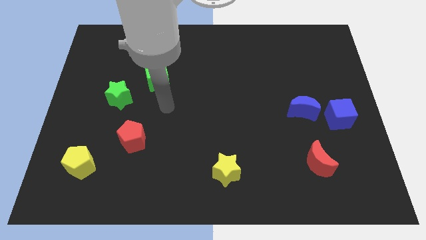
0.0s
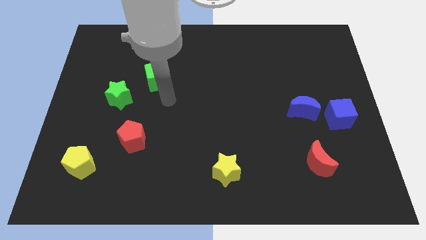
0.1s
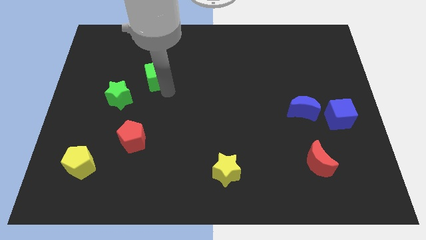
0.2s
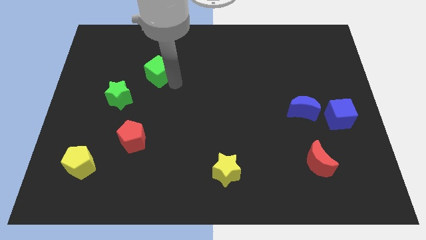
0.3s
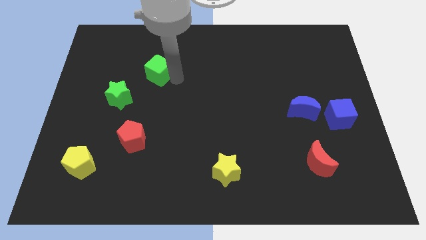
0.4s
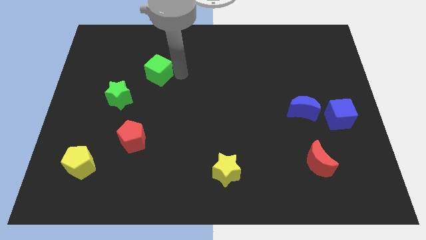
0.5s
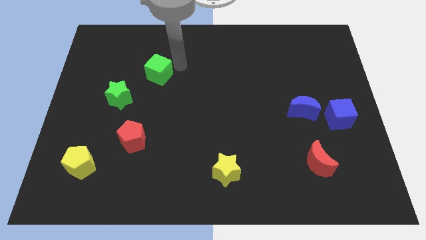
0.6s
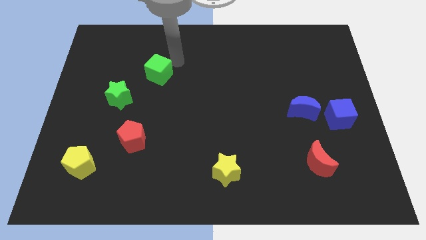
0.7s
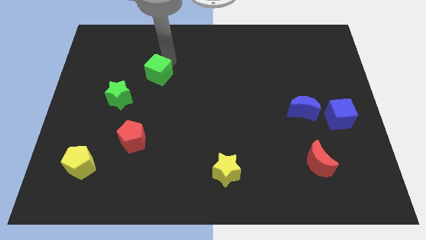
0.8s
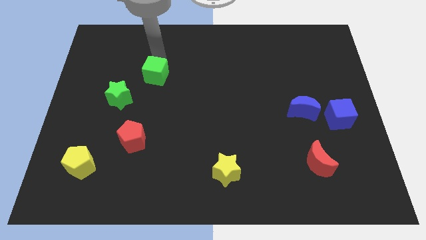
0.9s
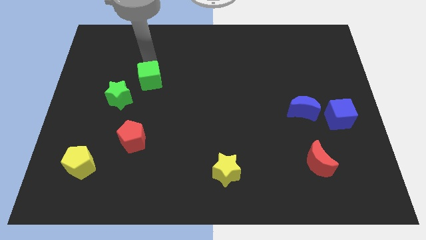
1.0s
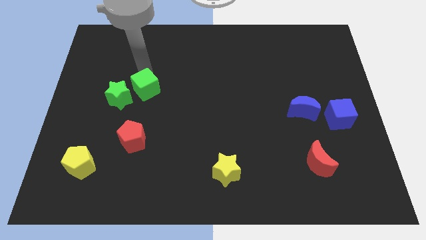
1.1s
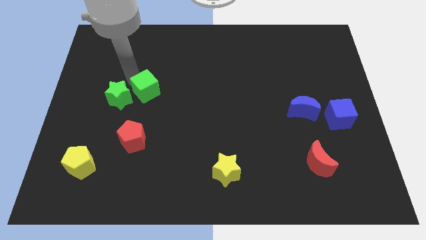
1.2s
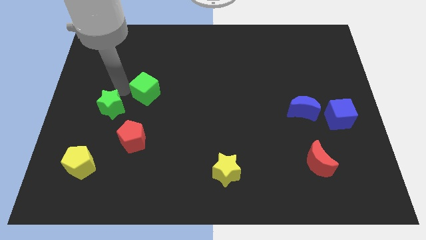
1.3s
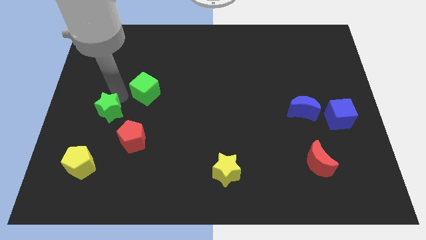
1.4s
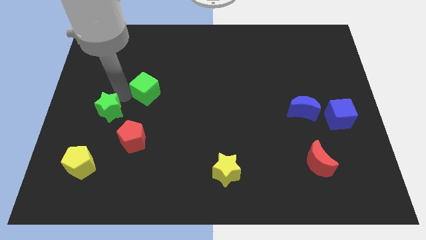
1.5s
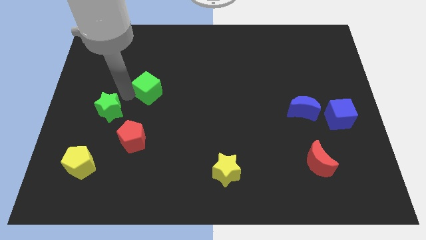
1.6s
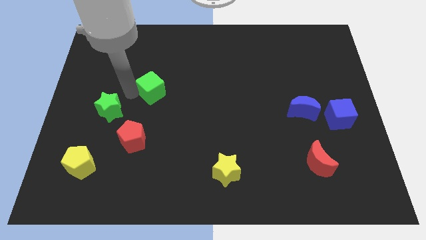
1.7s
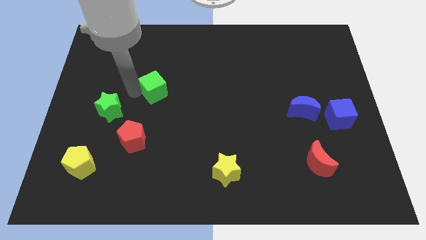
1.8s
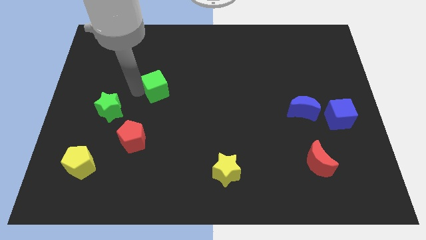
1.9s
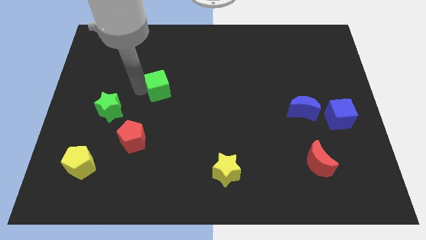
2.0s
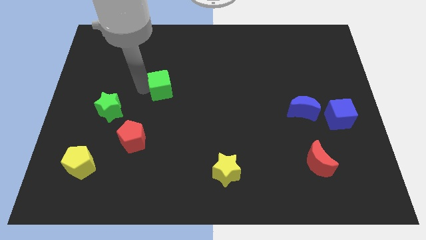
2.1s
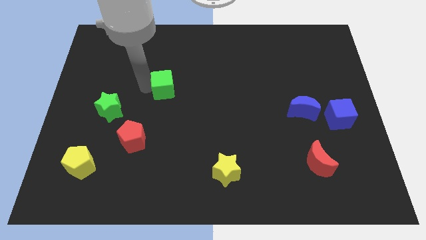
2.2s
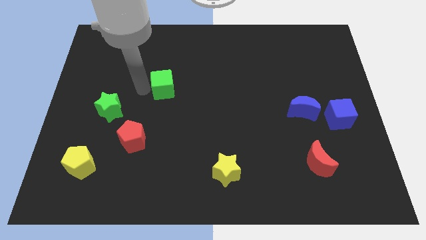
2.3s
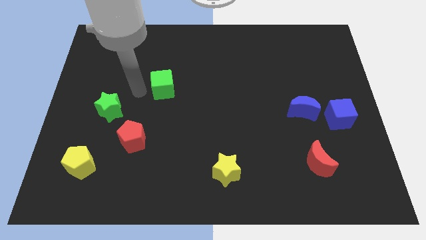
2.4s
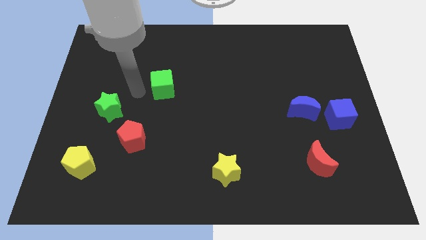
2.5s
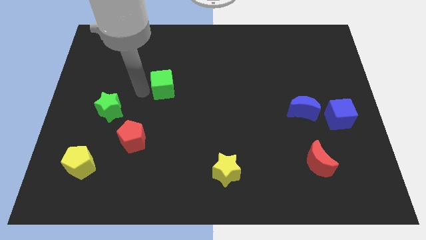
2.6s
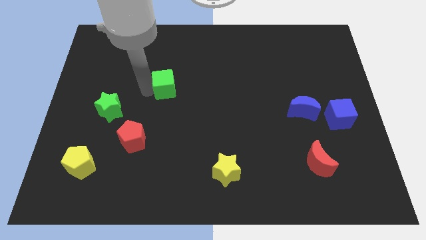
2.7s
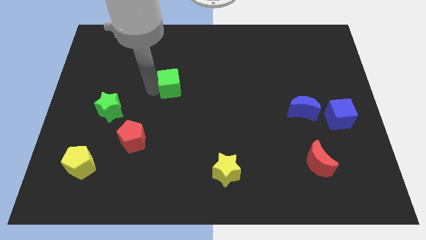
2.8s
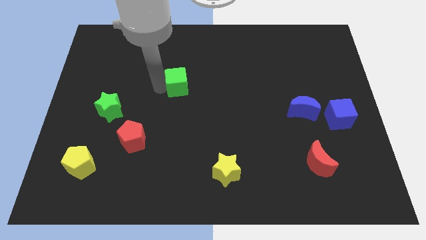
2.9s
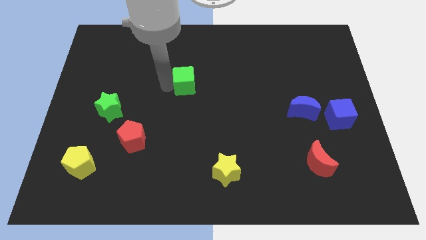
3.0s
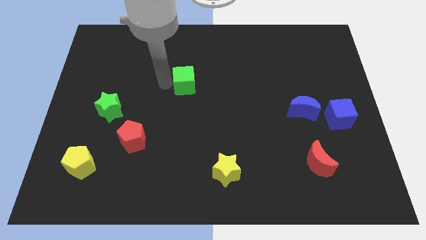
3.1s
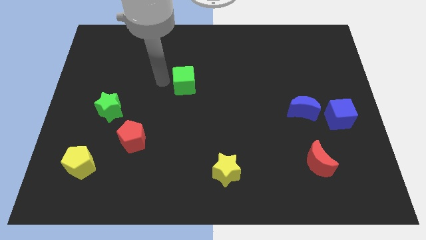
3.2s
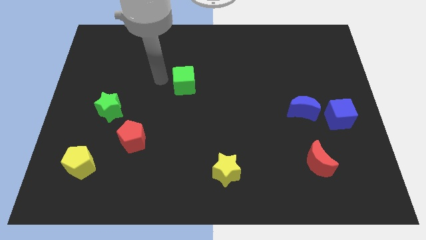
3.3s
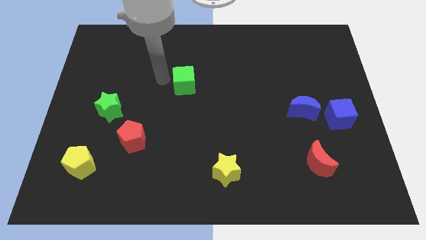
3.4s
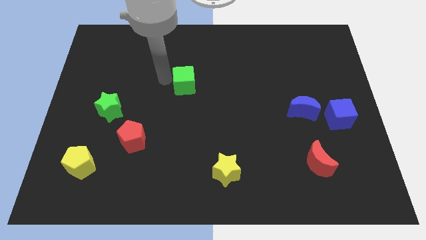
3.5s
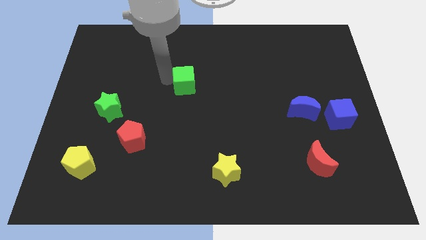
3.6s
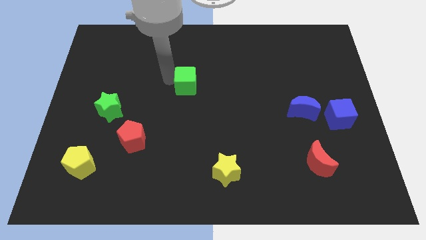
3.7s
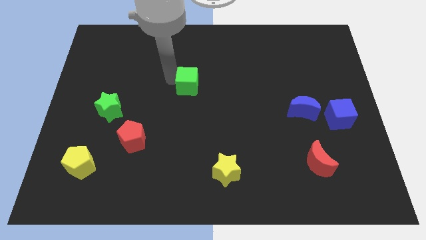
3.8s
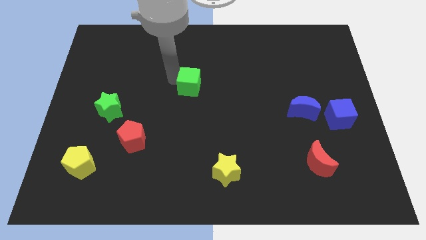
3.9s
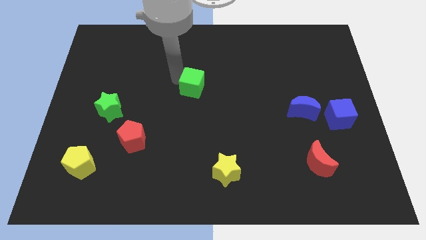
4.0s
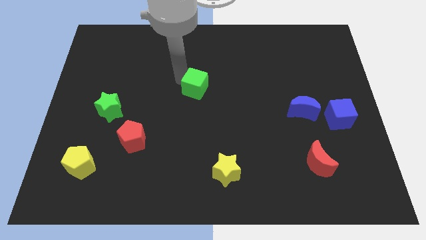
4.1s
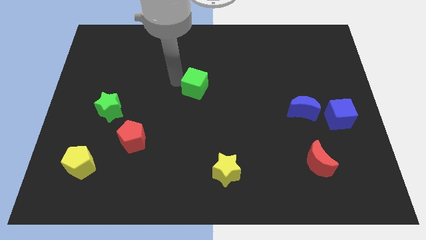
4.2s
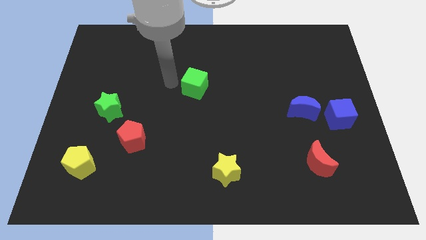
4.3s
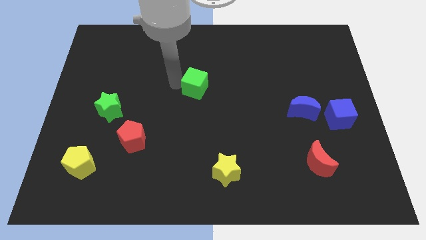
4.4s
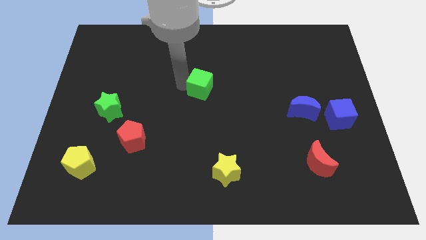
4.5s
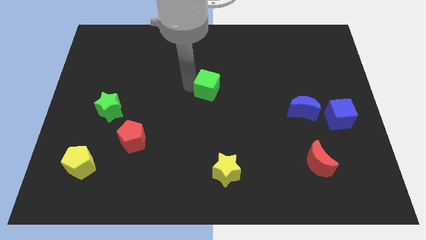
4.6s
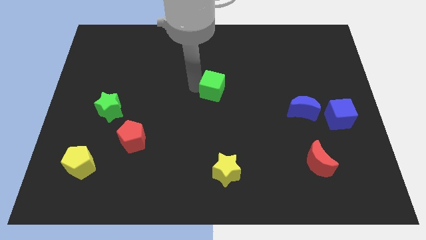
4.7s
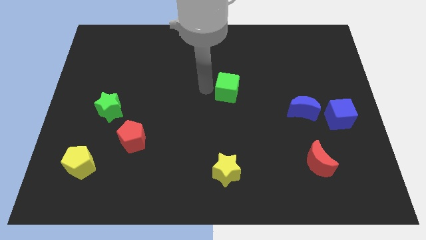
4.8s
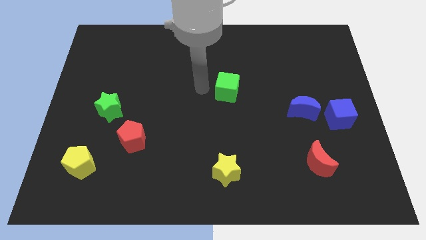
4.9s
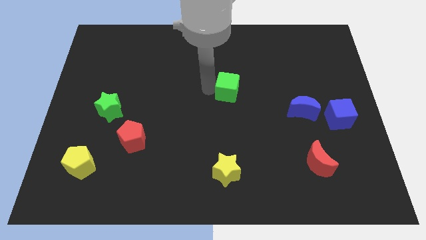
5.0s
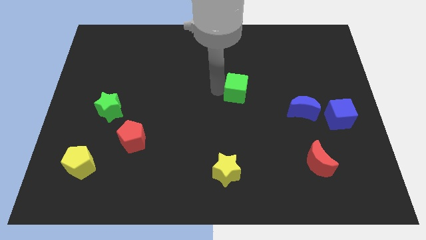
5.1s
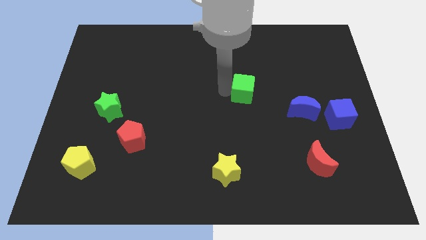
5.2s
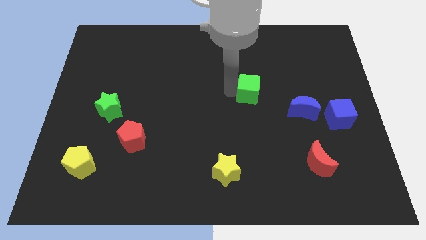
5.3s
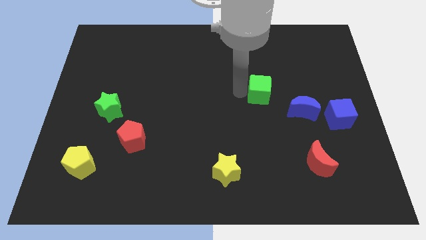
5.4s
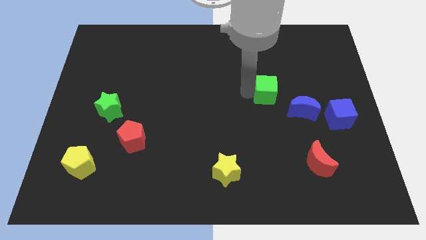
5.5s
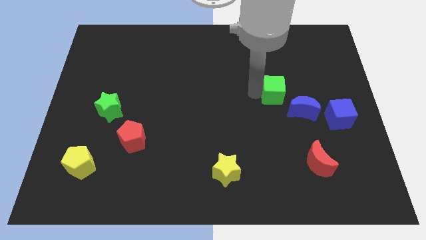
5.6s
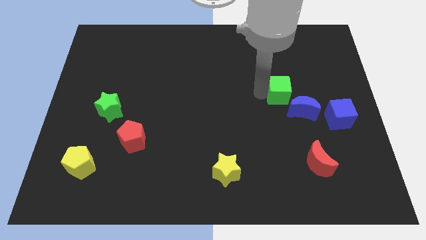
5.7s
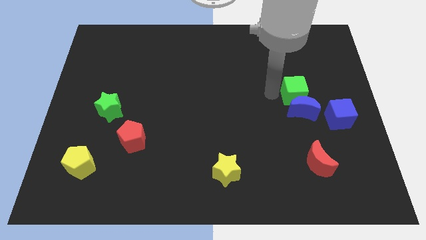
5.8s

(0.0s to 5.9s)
push the green cube to the top right of the blue moon

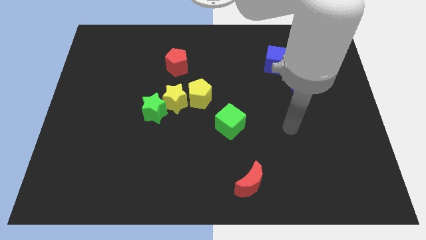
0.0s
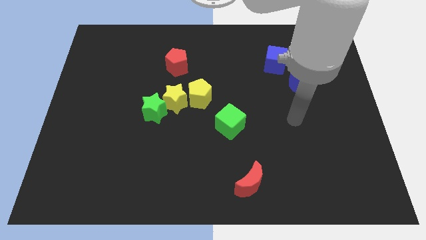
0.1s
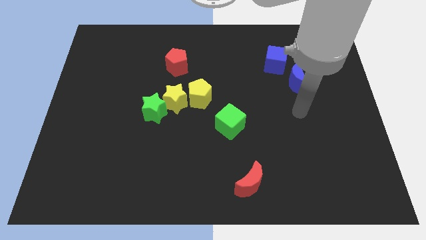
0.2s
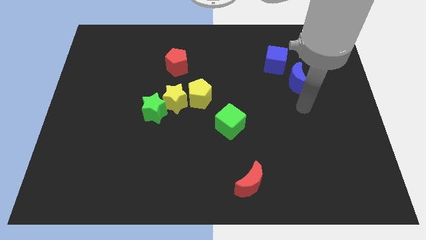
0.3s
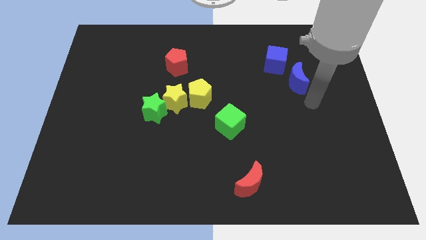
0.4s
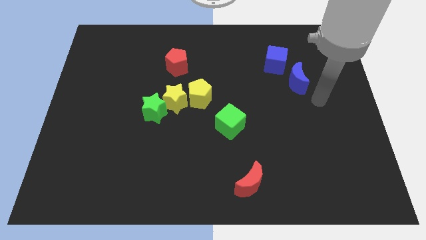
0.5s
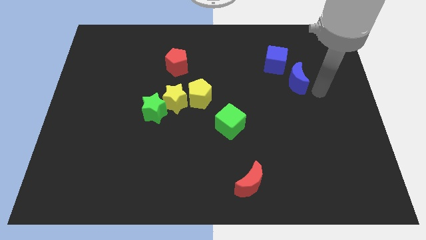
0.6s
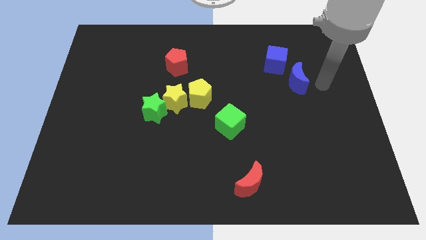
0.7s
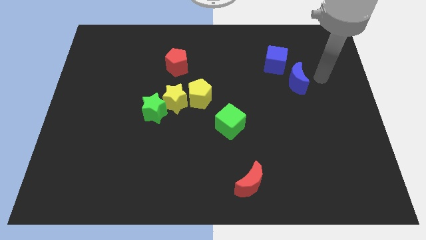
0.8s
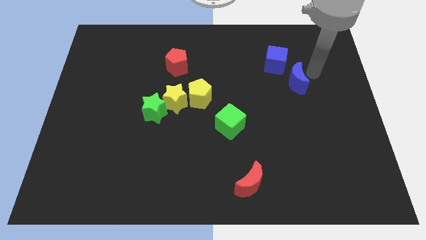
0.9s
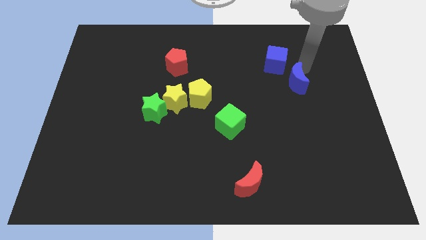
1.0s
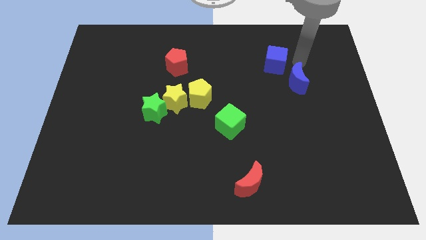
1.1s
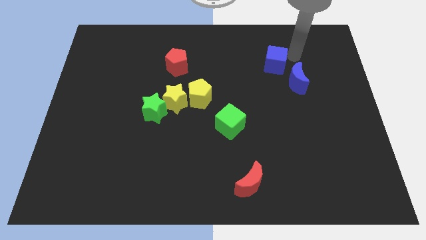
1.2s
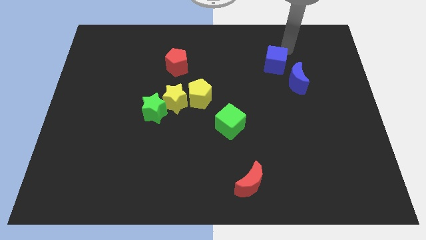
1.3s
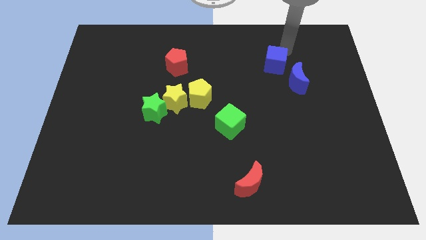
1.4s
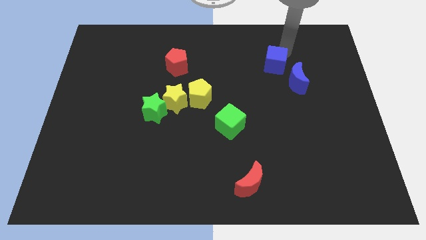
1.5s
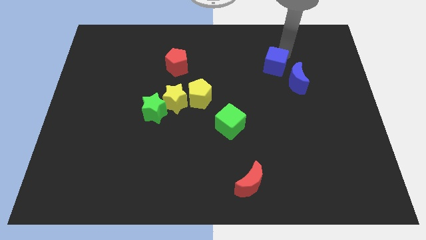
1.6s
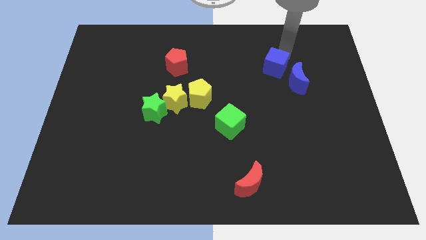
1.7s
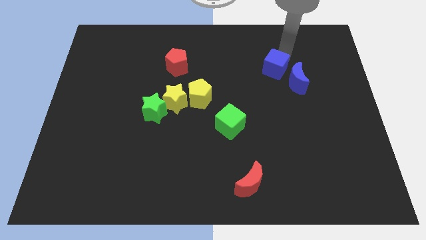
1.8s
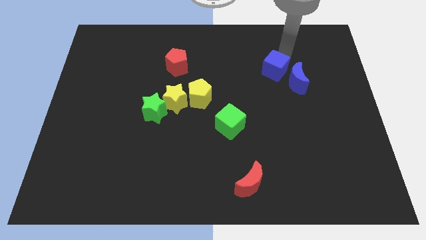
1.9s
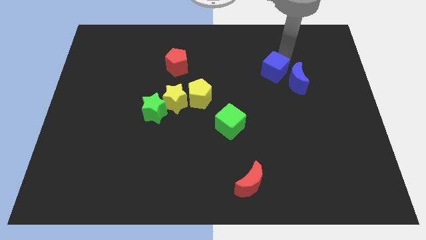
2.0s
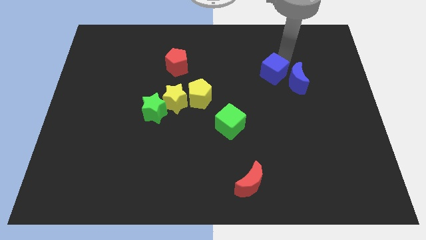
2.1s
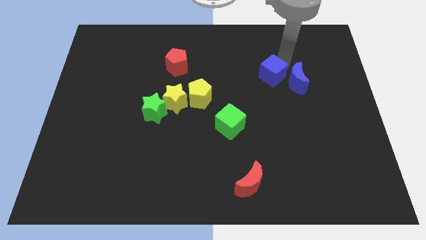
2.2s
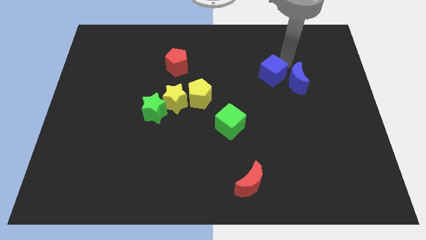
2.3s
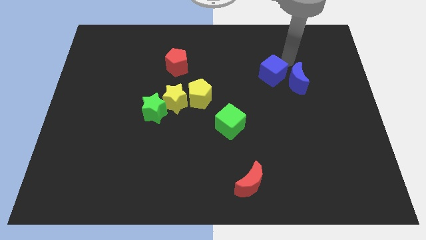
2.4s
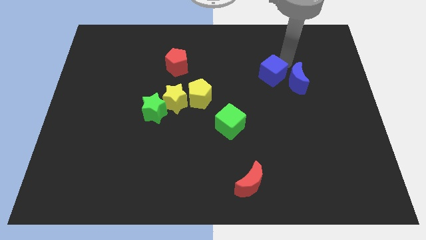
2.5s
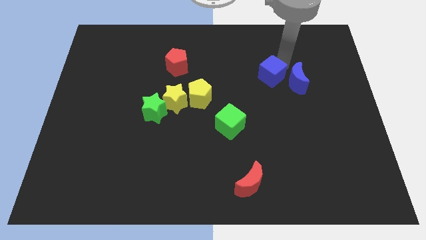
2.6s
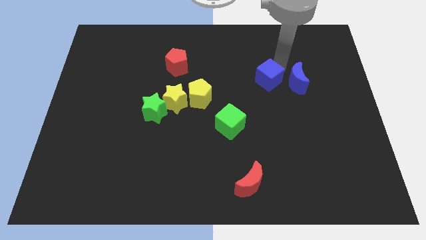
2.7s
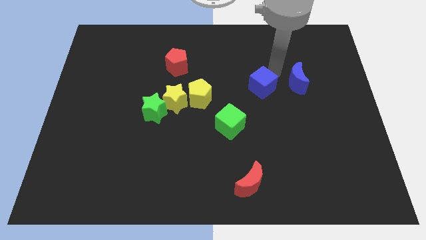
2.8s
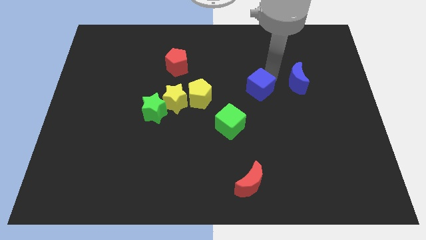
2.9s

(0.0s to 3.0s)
put the blue cube just right of the yellow pentagon
